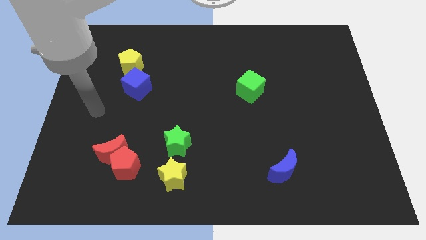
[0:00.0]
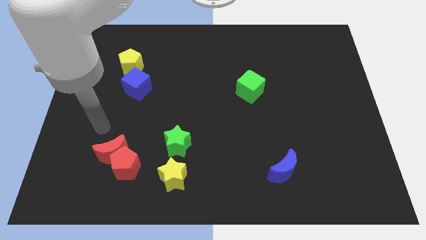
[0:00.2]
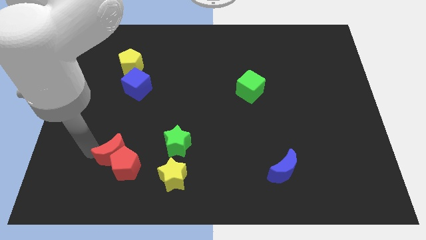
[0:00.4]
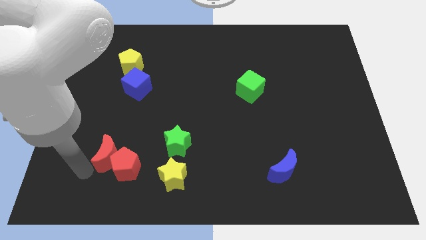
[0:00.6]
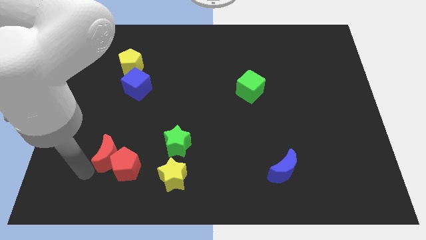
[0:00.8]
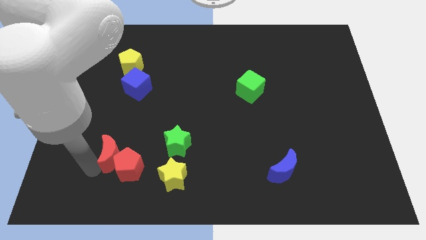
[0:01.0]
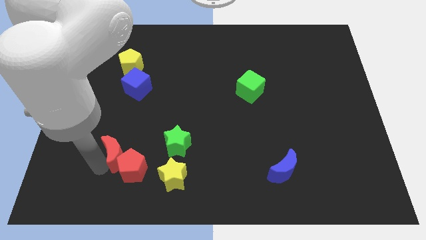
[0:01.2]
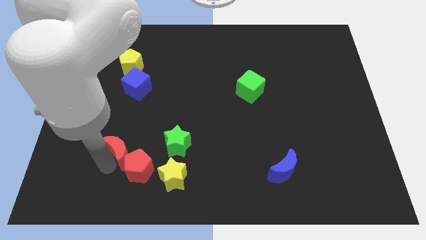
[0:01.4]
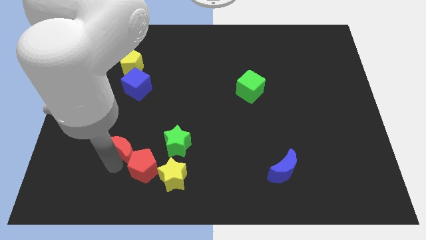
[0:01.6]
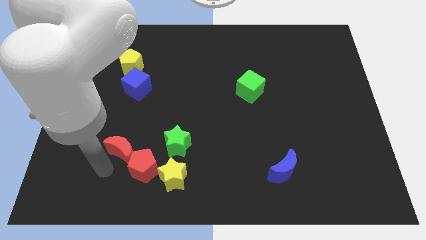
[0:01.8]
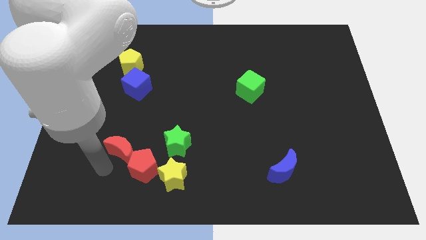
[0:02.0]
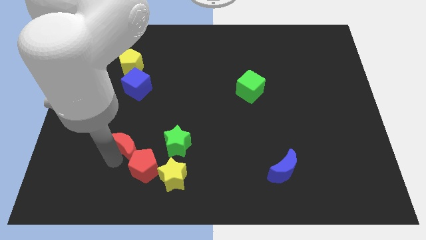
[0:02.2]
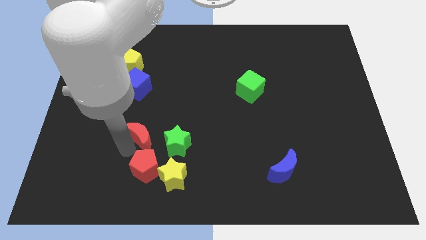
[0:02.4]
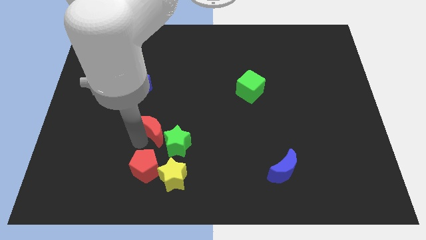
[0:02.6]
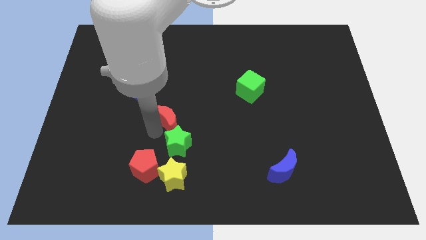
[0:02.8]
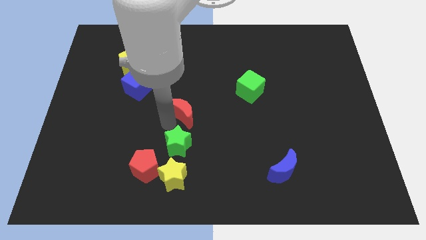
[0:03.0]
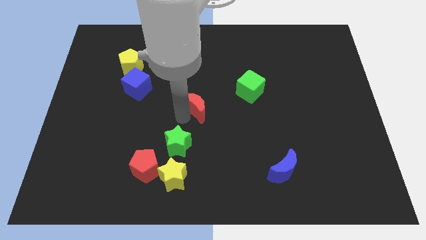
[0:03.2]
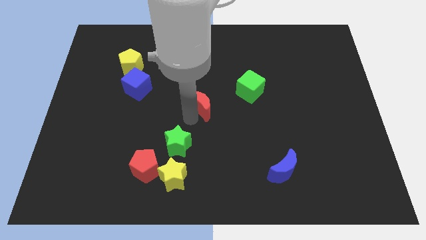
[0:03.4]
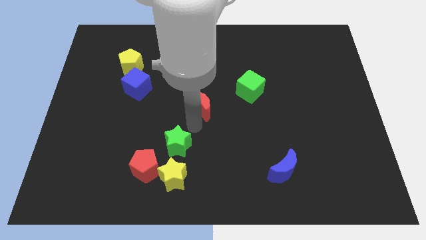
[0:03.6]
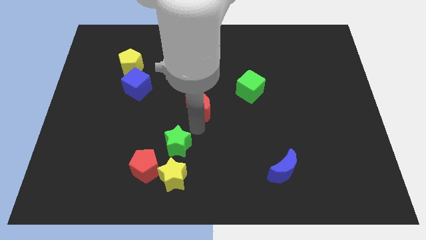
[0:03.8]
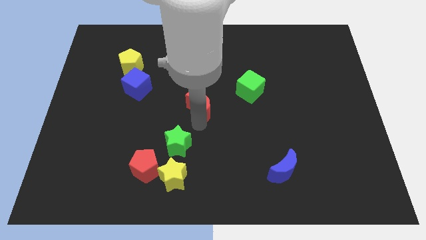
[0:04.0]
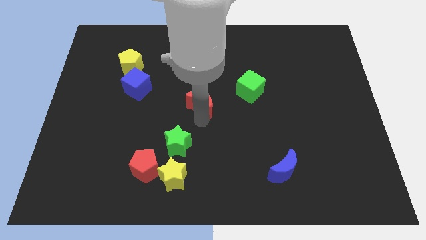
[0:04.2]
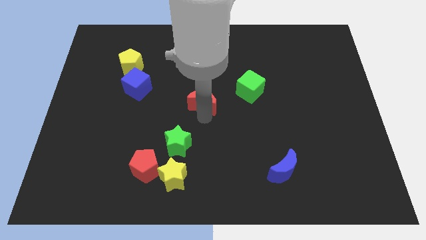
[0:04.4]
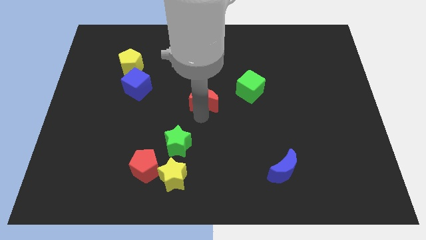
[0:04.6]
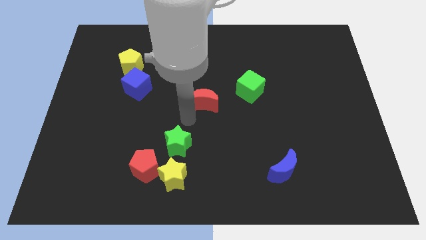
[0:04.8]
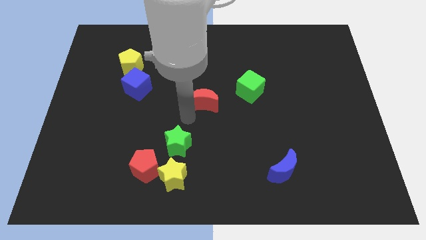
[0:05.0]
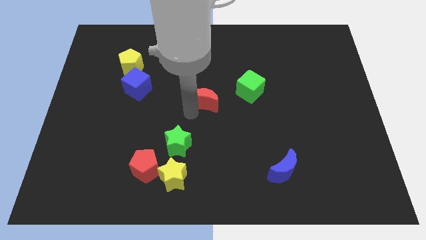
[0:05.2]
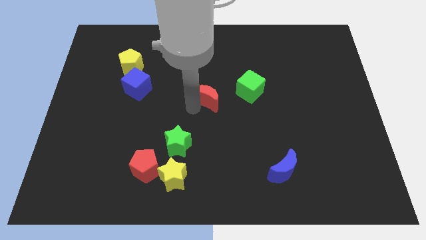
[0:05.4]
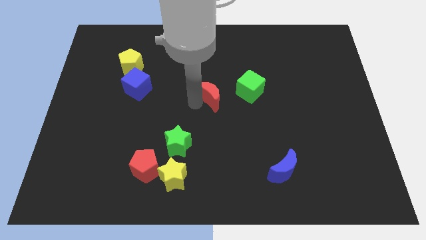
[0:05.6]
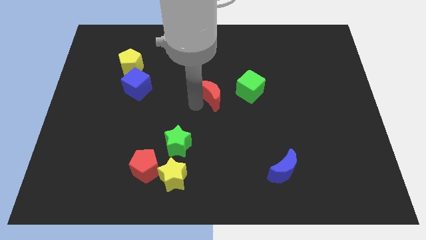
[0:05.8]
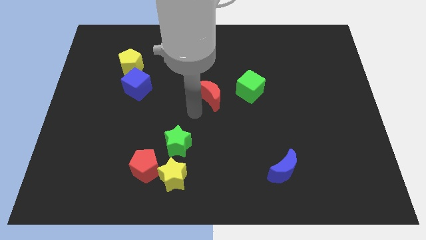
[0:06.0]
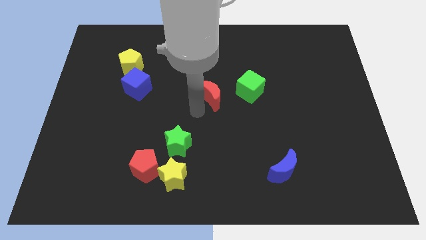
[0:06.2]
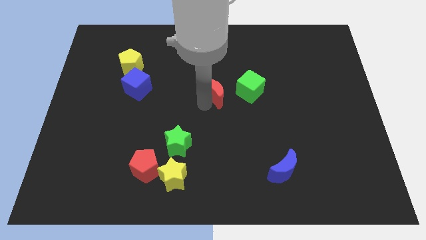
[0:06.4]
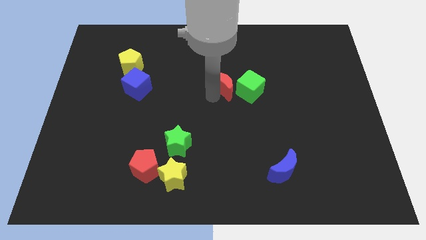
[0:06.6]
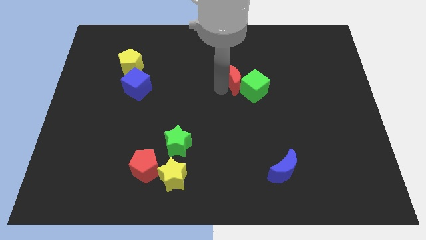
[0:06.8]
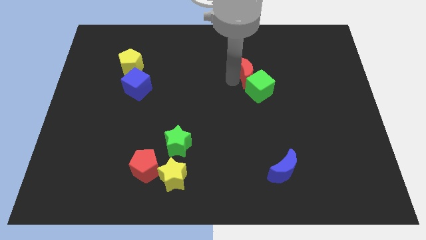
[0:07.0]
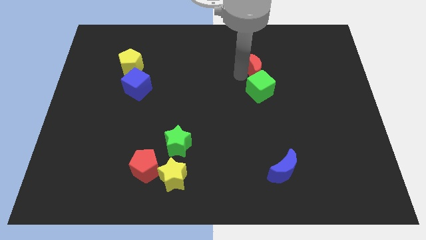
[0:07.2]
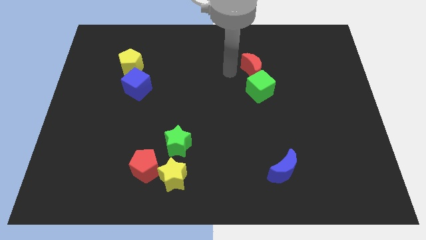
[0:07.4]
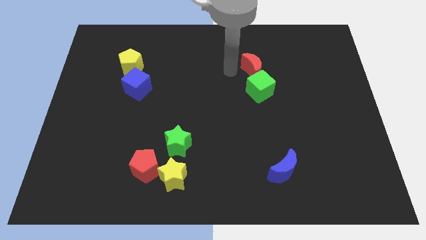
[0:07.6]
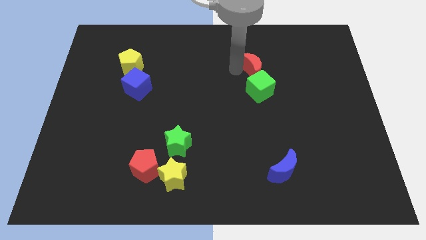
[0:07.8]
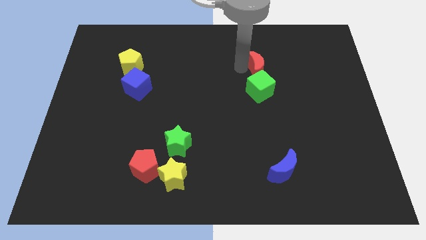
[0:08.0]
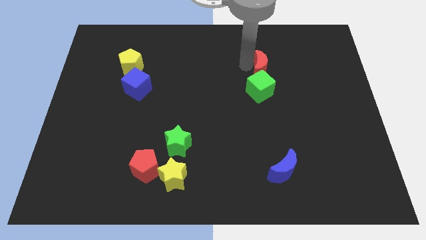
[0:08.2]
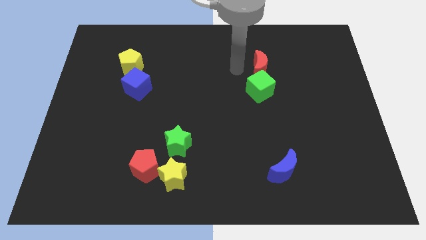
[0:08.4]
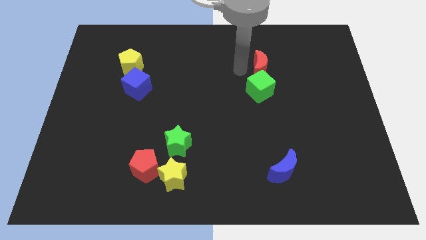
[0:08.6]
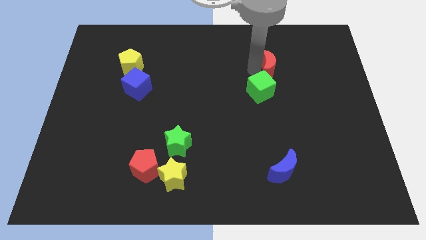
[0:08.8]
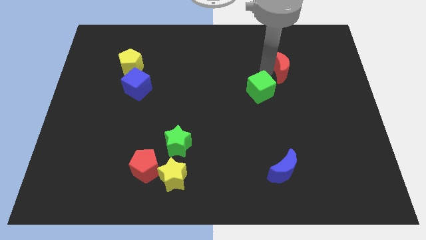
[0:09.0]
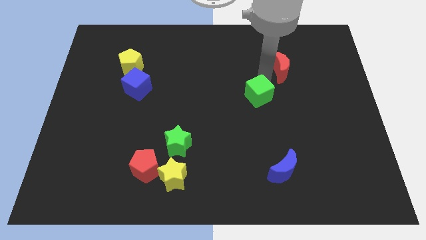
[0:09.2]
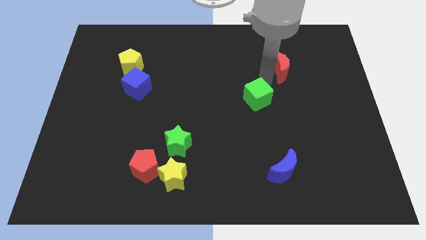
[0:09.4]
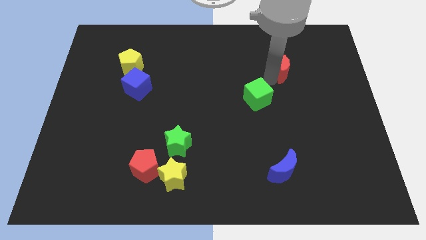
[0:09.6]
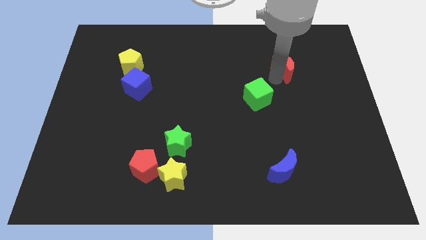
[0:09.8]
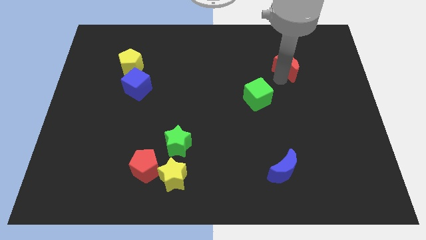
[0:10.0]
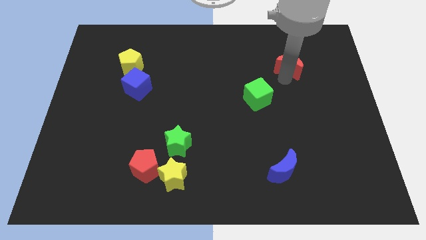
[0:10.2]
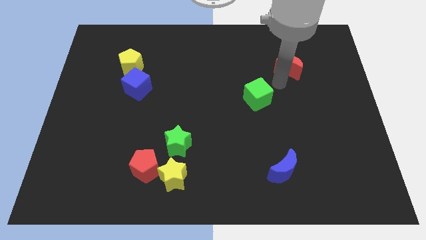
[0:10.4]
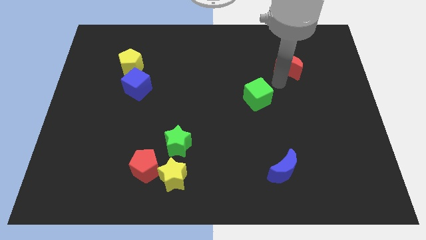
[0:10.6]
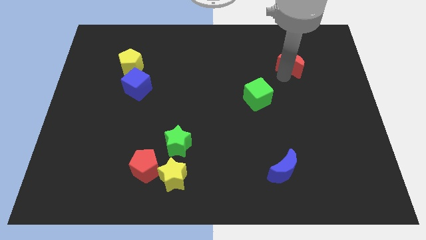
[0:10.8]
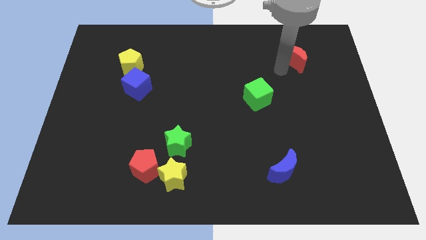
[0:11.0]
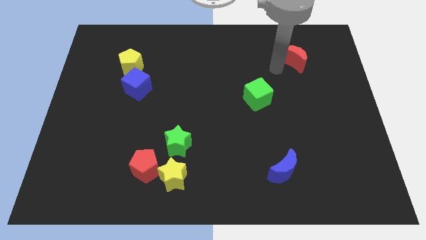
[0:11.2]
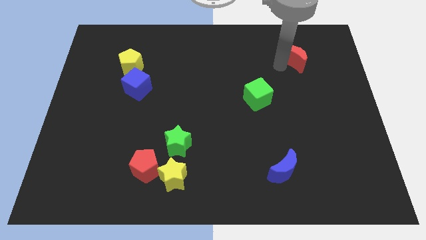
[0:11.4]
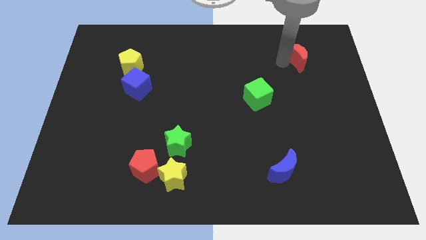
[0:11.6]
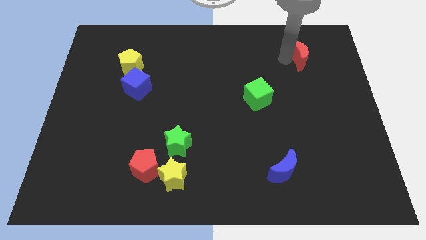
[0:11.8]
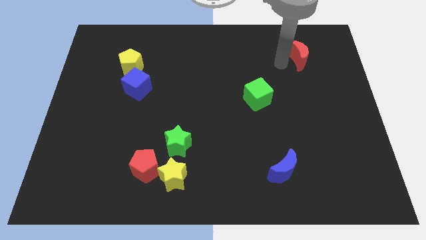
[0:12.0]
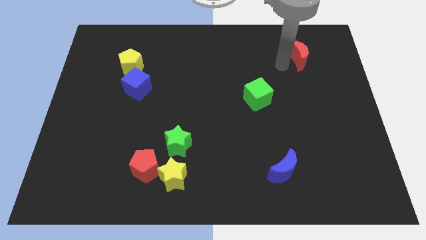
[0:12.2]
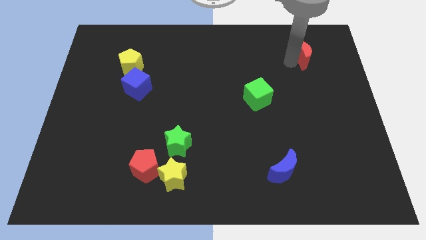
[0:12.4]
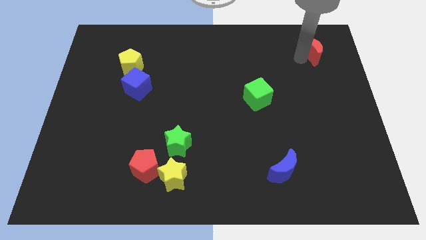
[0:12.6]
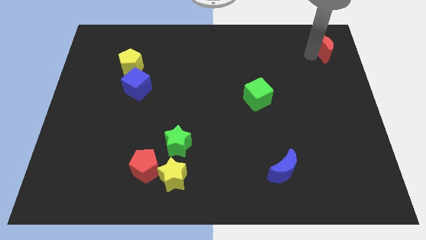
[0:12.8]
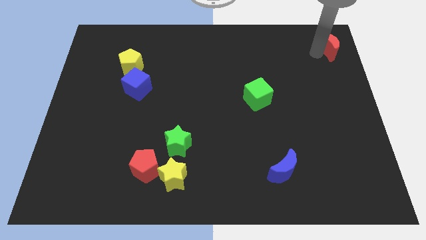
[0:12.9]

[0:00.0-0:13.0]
move the red moon to the upper right corner

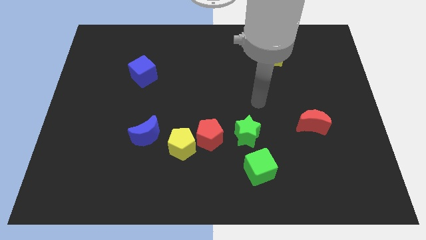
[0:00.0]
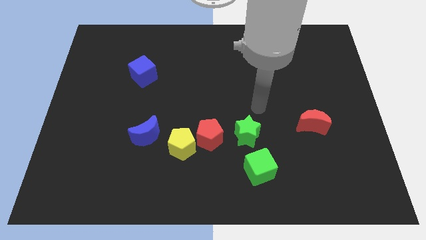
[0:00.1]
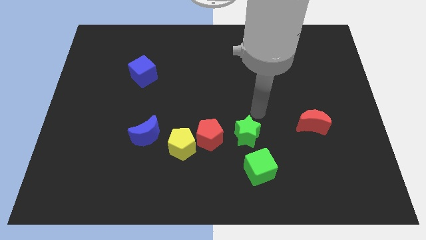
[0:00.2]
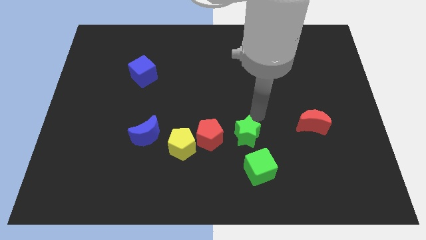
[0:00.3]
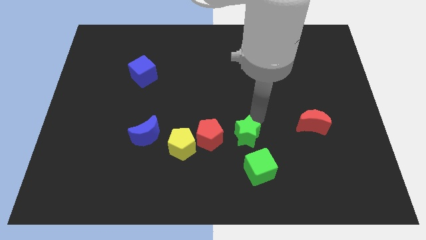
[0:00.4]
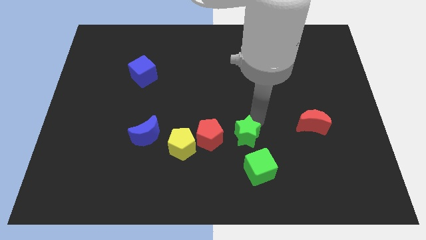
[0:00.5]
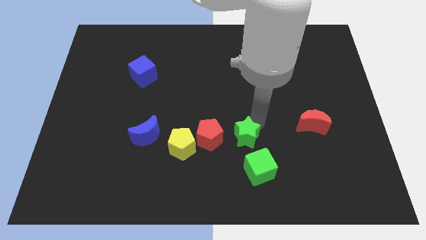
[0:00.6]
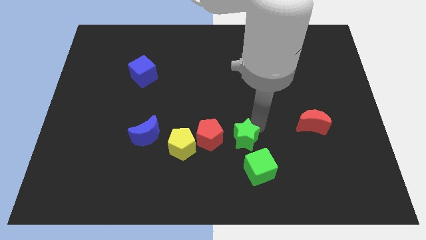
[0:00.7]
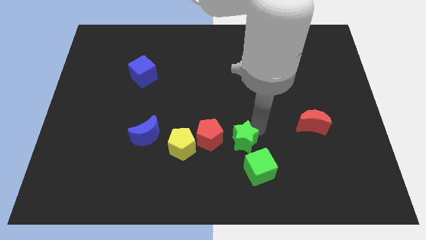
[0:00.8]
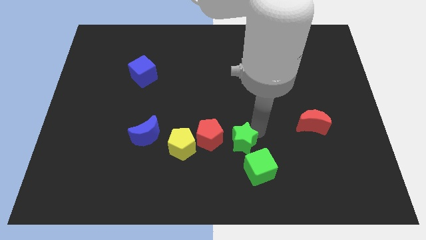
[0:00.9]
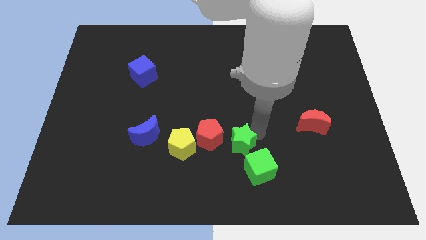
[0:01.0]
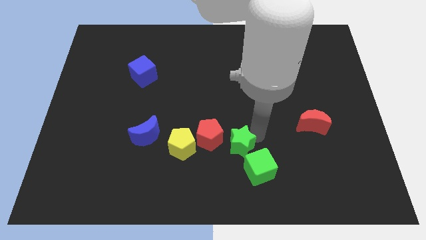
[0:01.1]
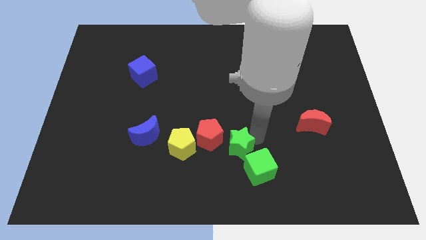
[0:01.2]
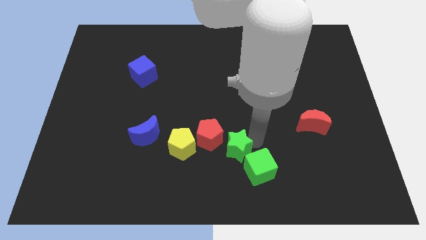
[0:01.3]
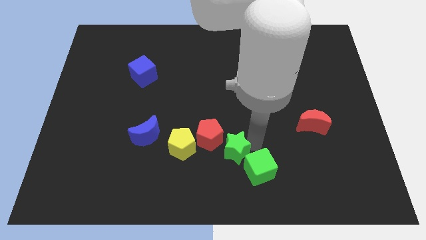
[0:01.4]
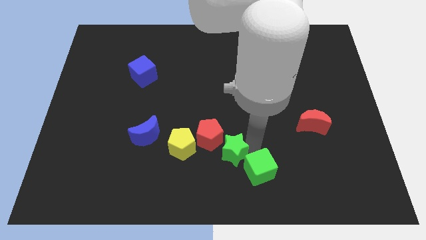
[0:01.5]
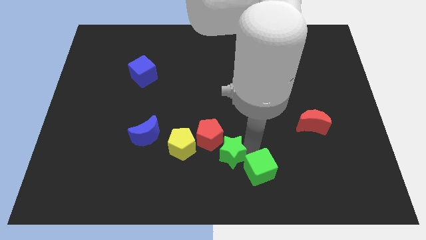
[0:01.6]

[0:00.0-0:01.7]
move the green star to the bottom side
